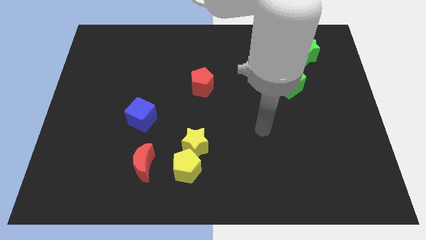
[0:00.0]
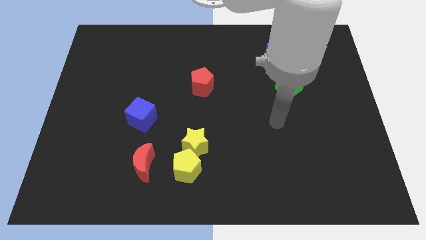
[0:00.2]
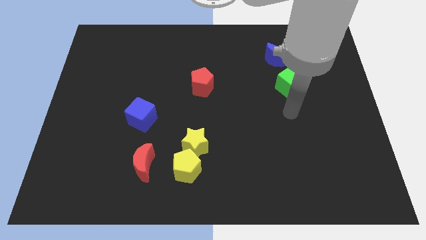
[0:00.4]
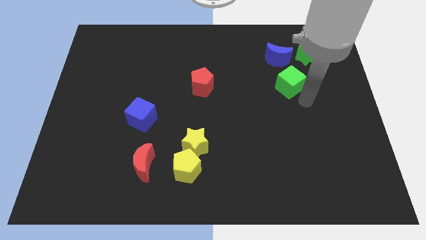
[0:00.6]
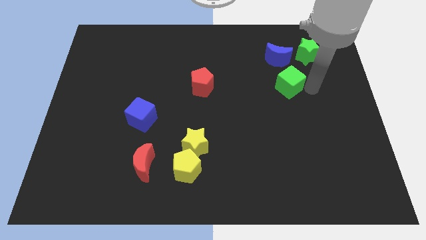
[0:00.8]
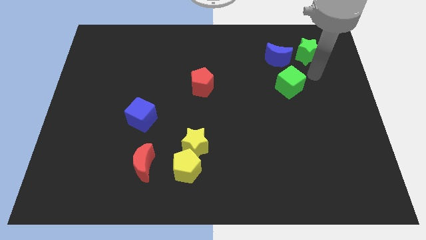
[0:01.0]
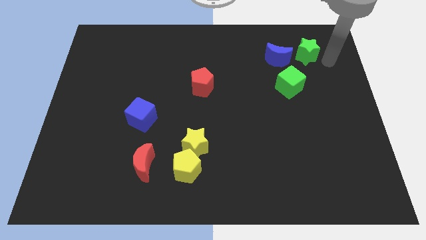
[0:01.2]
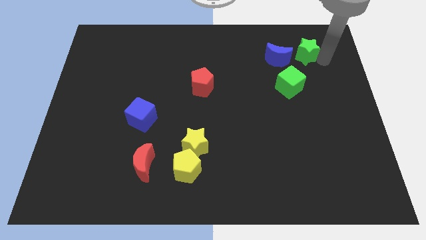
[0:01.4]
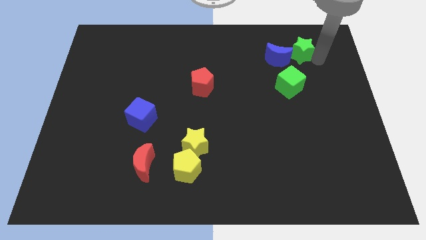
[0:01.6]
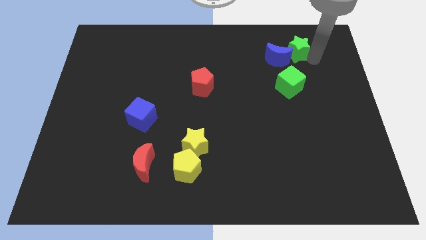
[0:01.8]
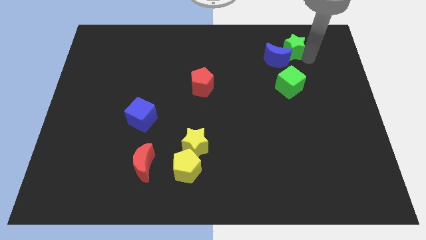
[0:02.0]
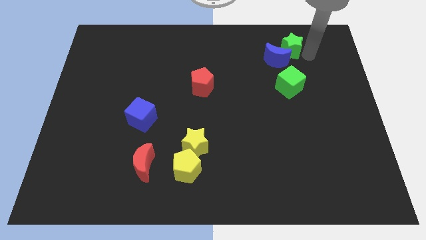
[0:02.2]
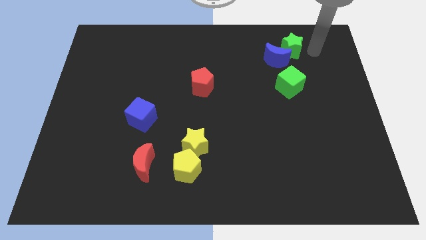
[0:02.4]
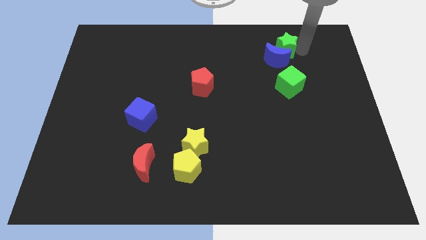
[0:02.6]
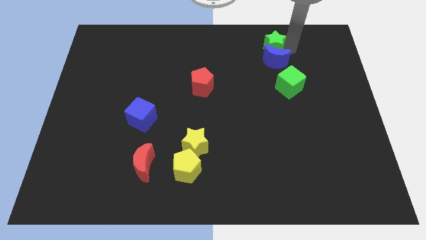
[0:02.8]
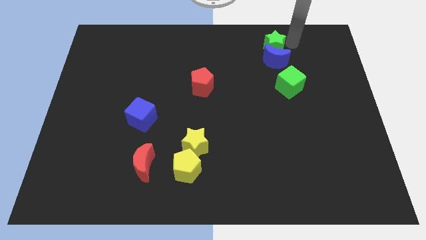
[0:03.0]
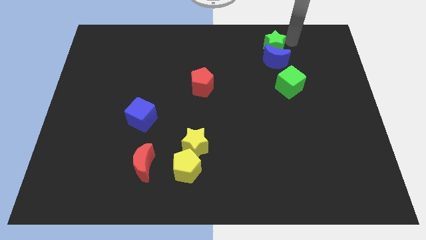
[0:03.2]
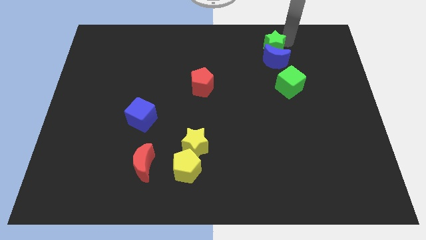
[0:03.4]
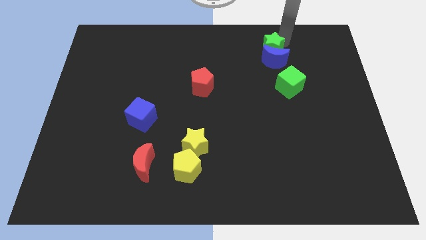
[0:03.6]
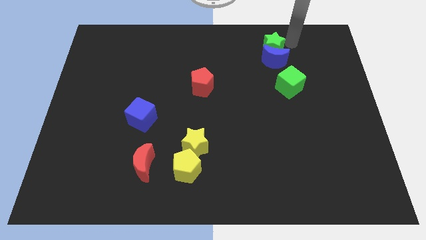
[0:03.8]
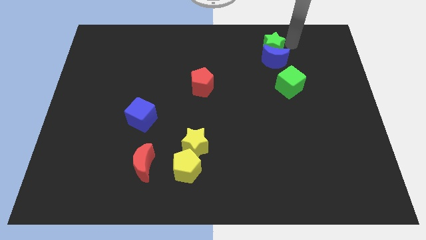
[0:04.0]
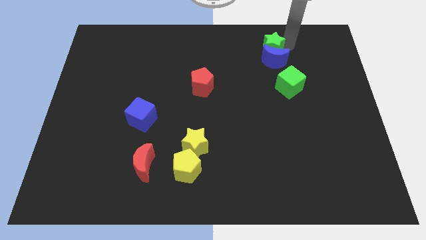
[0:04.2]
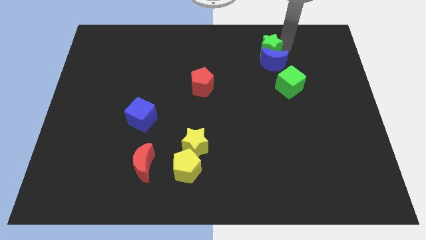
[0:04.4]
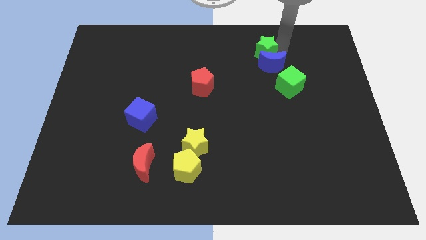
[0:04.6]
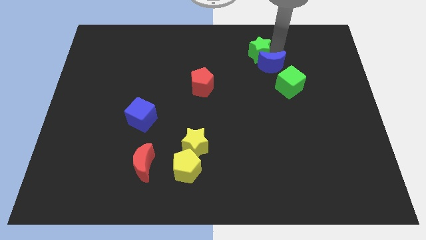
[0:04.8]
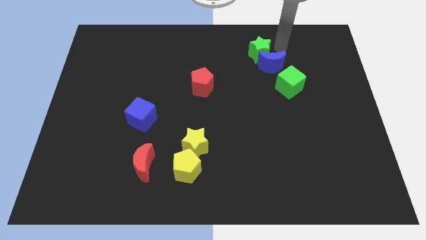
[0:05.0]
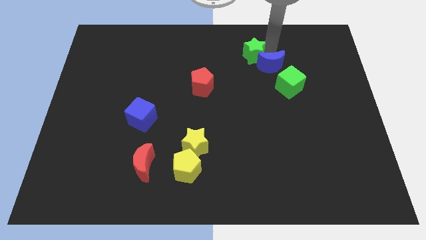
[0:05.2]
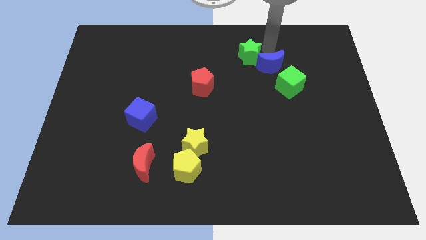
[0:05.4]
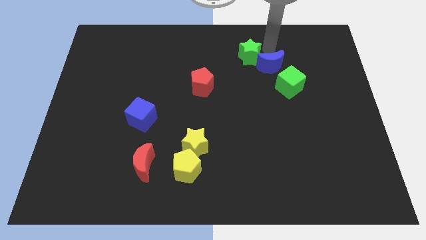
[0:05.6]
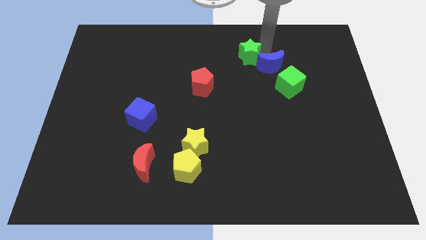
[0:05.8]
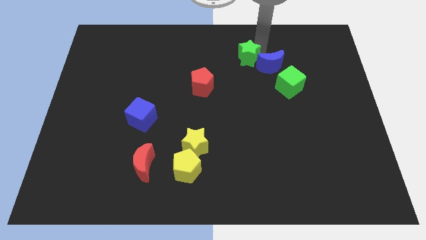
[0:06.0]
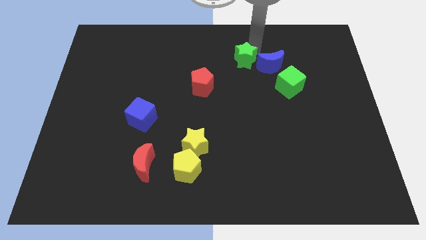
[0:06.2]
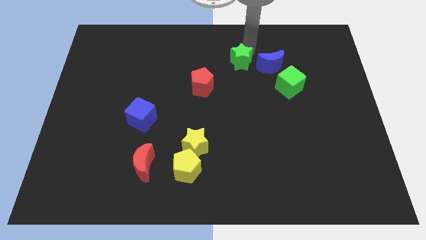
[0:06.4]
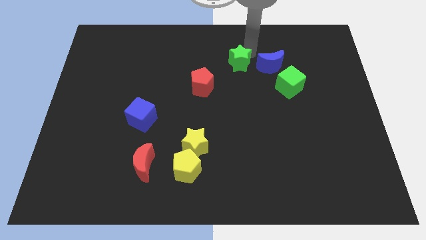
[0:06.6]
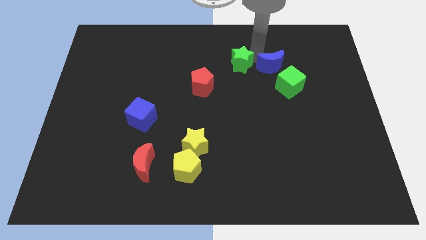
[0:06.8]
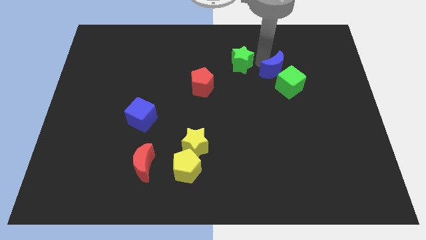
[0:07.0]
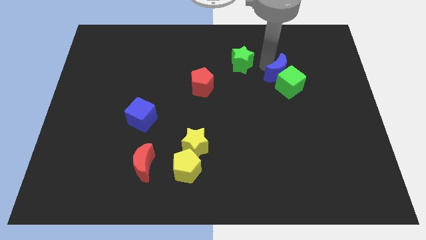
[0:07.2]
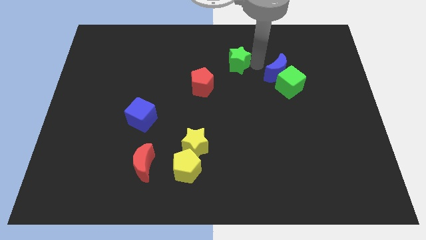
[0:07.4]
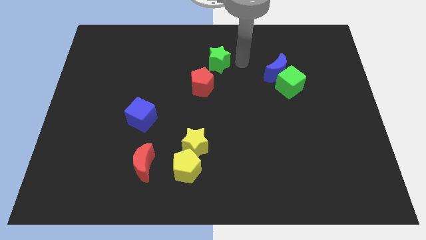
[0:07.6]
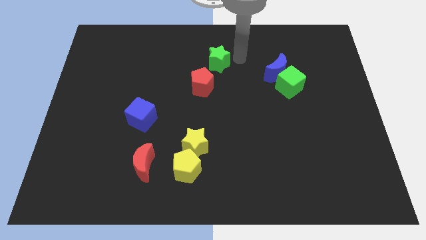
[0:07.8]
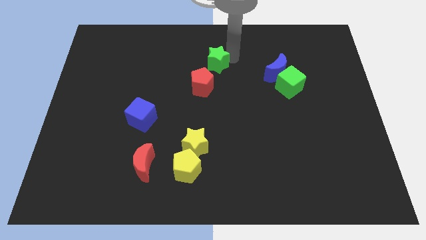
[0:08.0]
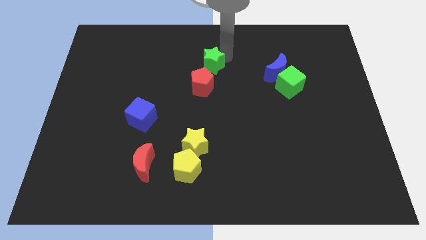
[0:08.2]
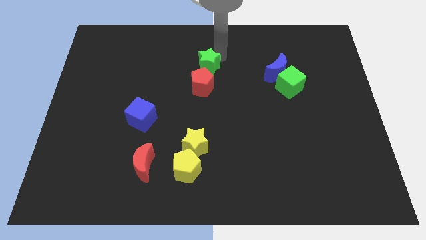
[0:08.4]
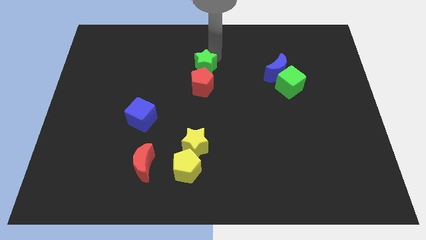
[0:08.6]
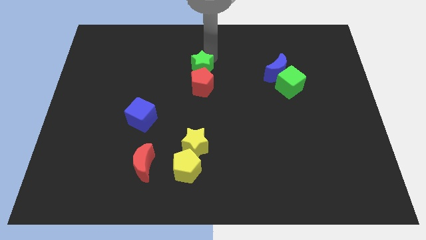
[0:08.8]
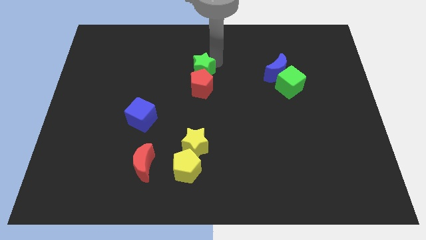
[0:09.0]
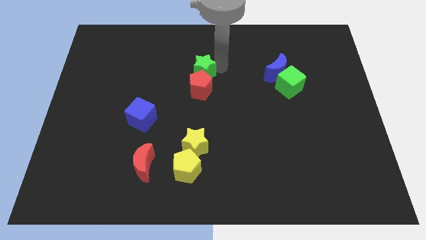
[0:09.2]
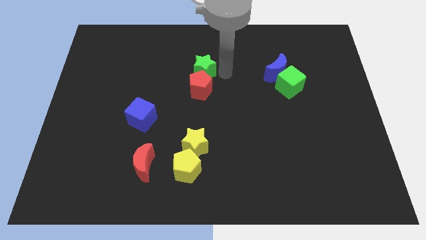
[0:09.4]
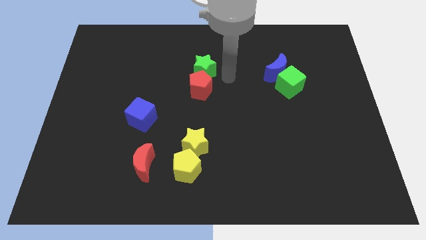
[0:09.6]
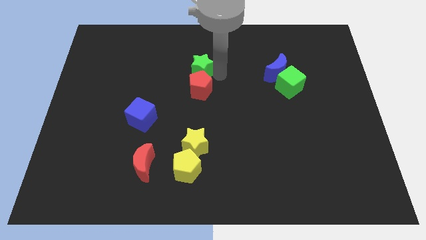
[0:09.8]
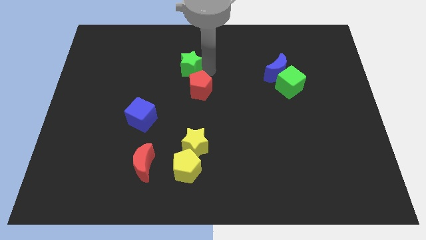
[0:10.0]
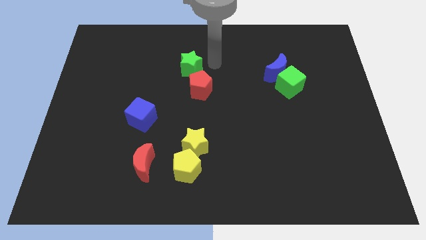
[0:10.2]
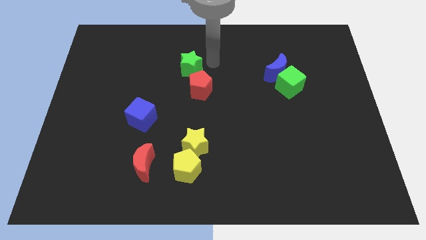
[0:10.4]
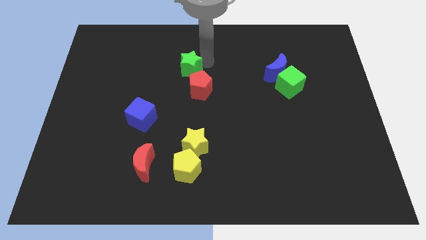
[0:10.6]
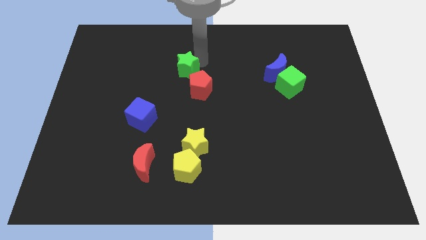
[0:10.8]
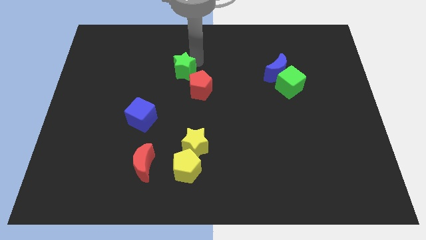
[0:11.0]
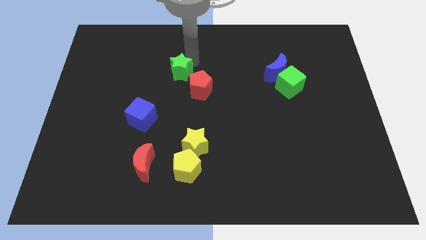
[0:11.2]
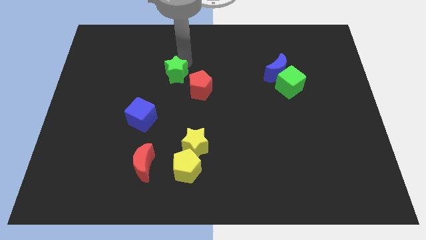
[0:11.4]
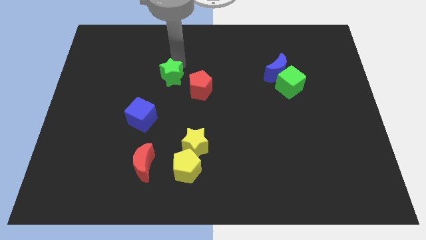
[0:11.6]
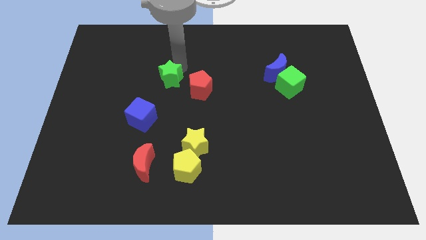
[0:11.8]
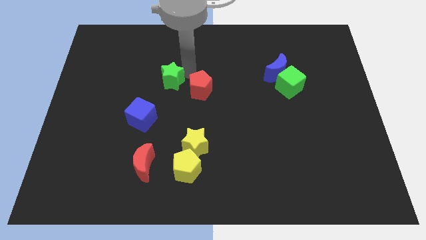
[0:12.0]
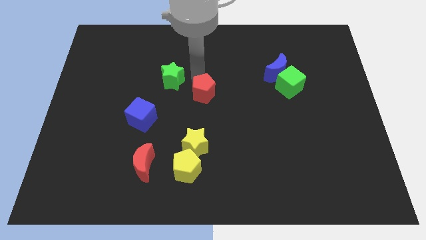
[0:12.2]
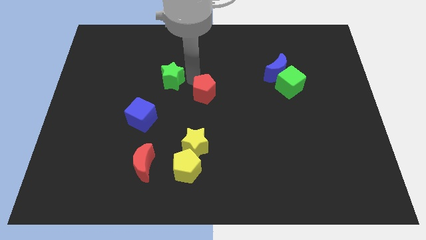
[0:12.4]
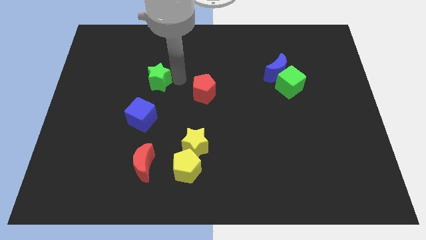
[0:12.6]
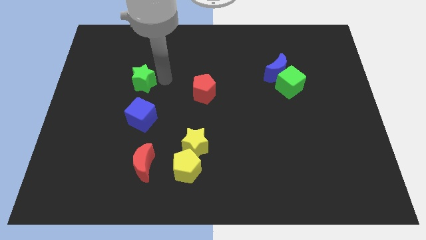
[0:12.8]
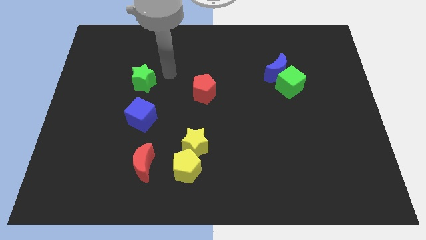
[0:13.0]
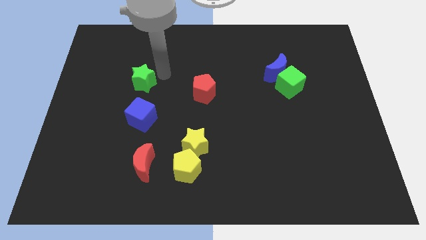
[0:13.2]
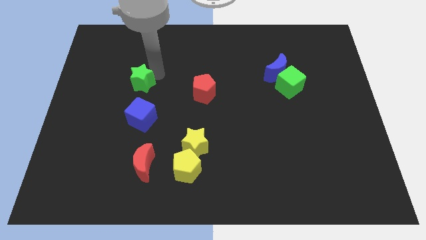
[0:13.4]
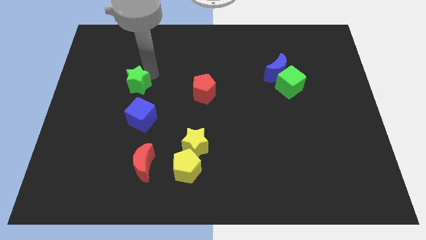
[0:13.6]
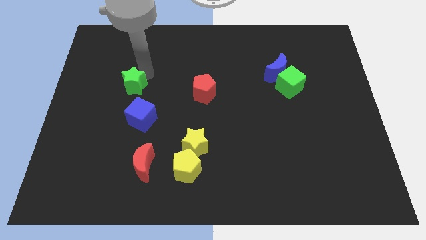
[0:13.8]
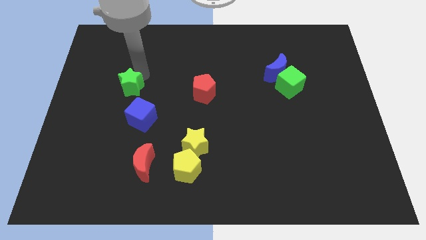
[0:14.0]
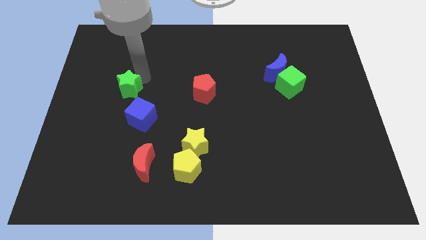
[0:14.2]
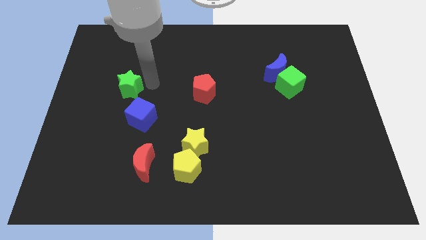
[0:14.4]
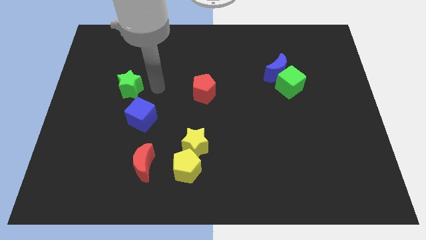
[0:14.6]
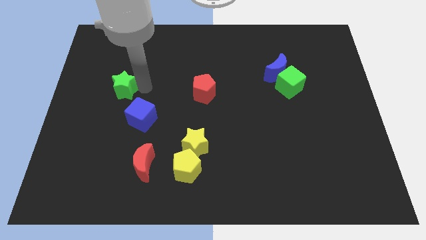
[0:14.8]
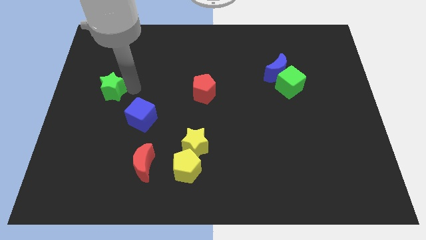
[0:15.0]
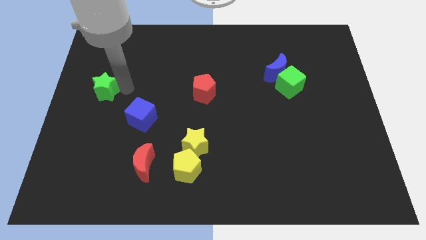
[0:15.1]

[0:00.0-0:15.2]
put the green star to the left side of the board
